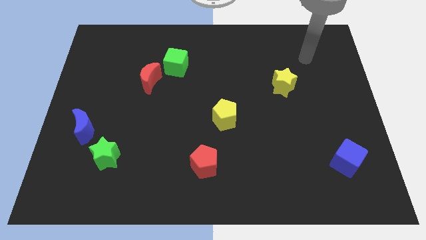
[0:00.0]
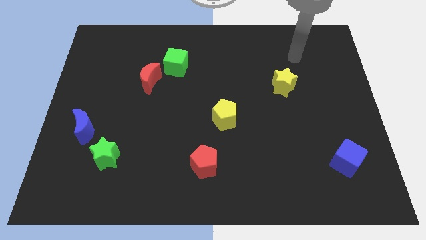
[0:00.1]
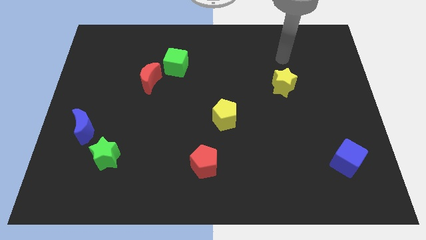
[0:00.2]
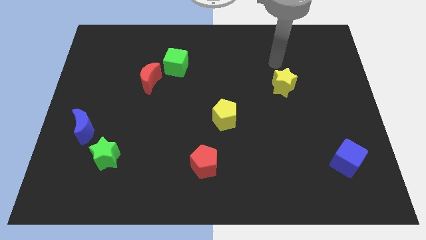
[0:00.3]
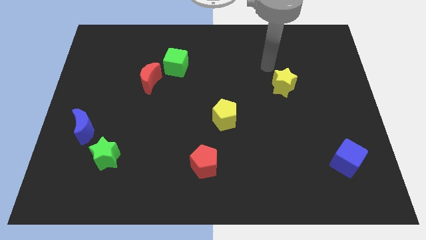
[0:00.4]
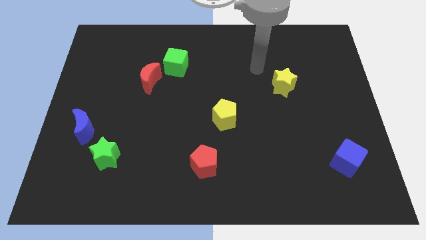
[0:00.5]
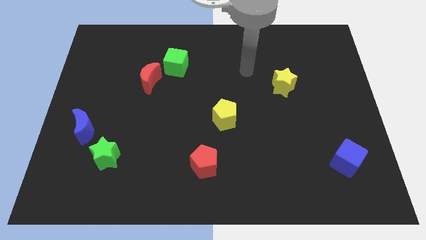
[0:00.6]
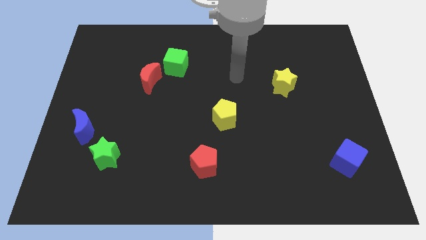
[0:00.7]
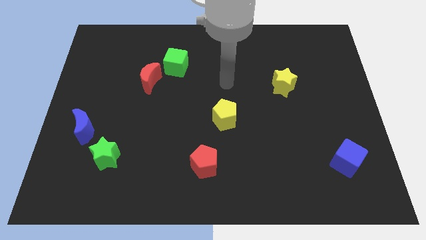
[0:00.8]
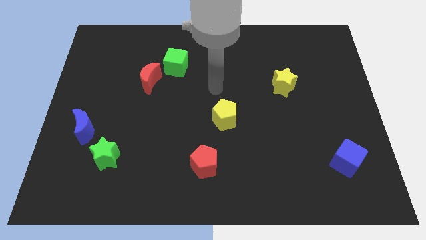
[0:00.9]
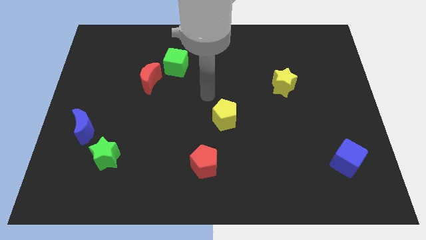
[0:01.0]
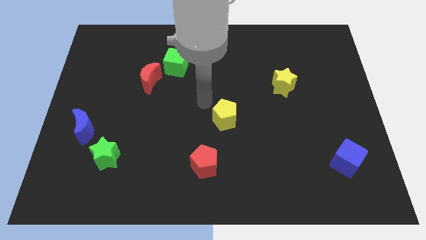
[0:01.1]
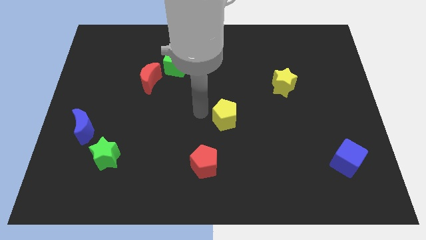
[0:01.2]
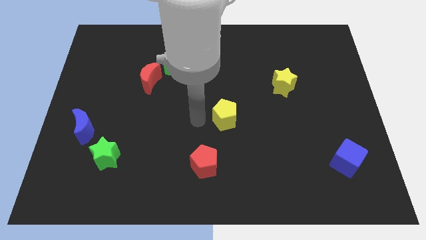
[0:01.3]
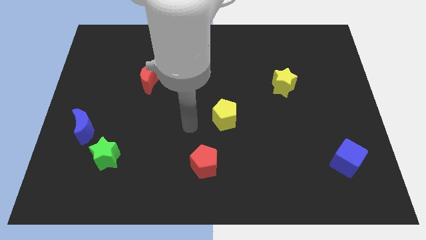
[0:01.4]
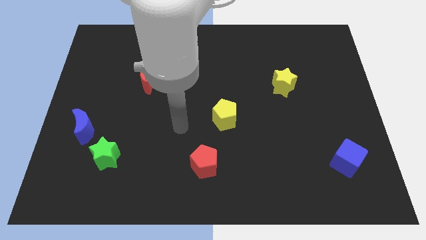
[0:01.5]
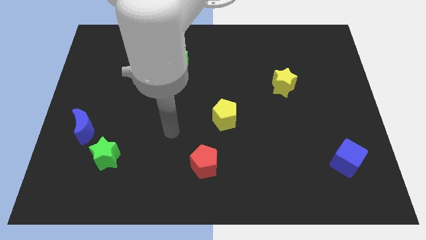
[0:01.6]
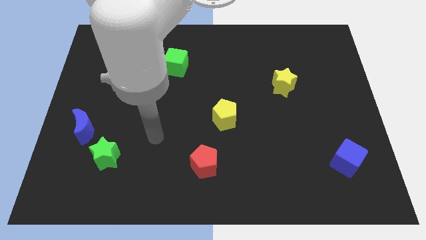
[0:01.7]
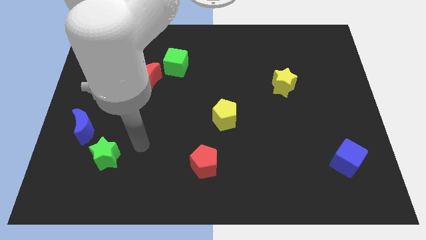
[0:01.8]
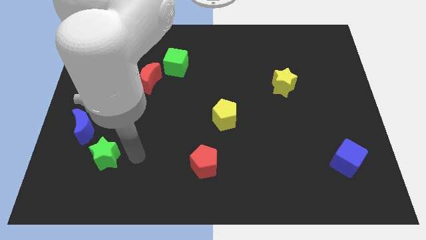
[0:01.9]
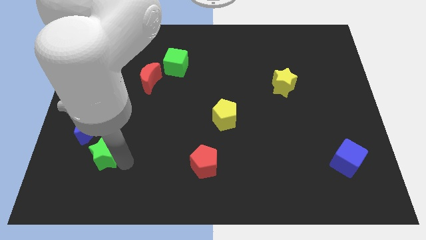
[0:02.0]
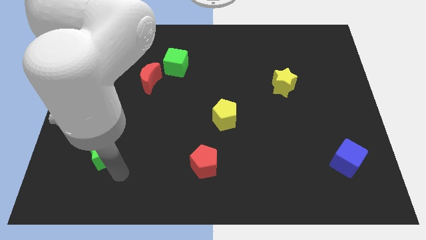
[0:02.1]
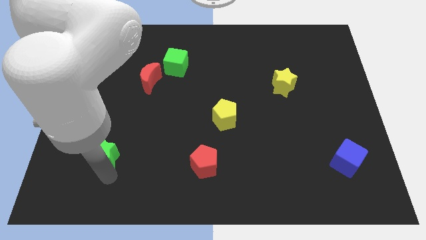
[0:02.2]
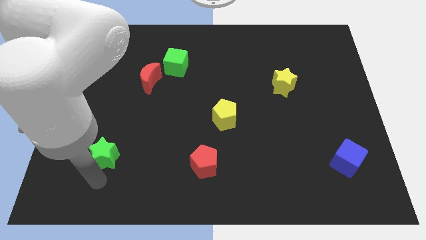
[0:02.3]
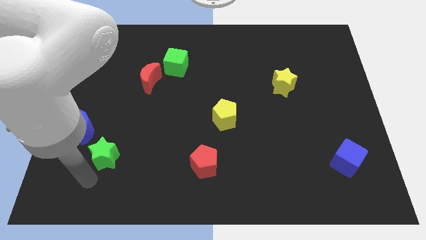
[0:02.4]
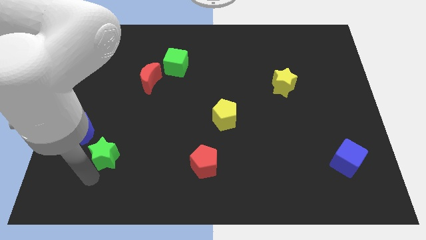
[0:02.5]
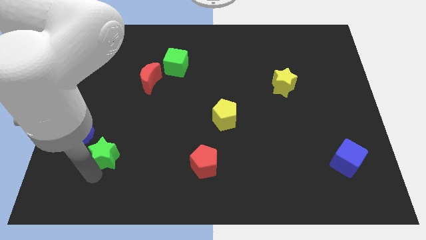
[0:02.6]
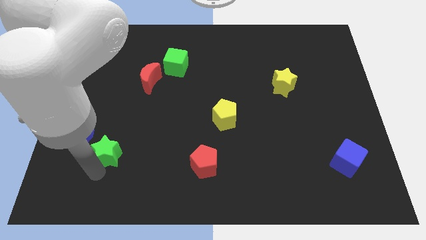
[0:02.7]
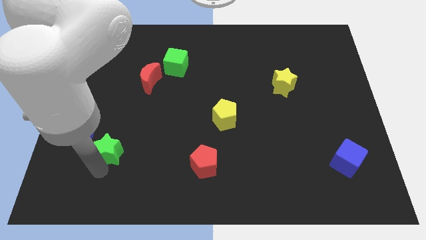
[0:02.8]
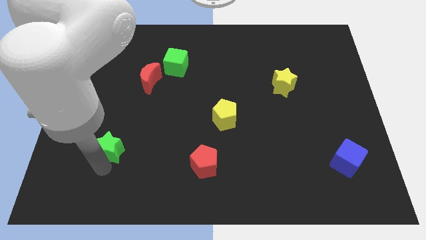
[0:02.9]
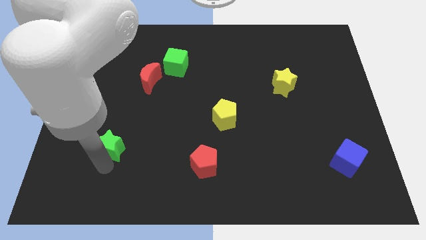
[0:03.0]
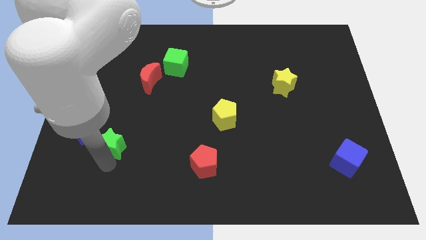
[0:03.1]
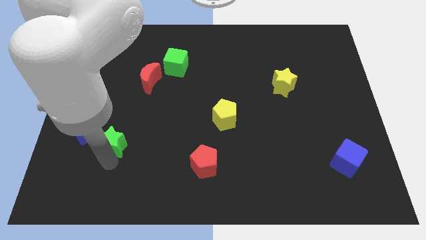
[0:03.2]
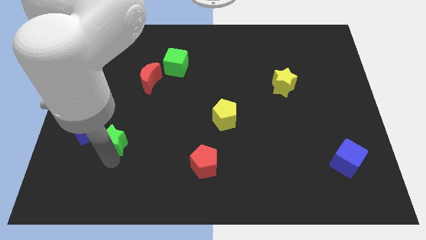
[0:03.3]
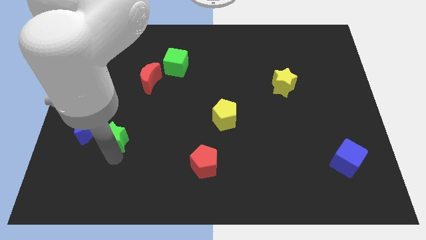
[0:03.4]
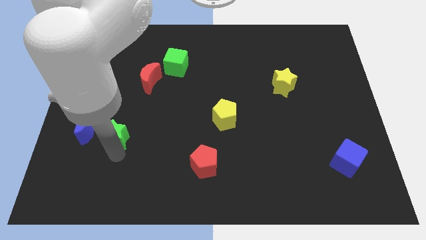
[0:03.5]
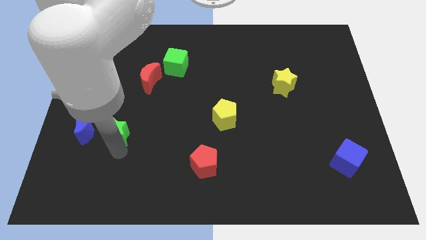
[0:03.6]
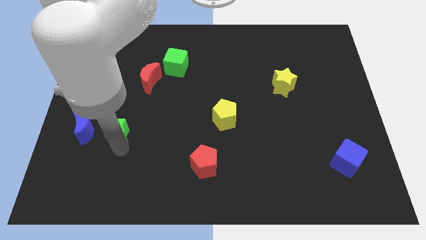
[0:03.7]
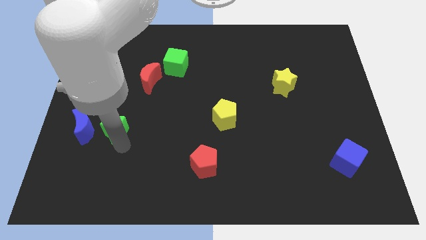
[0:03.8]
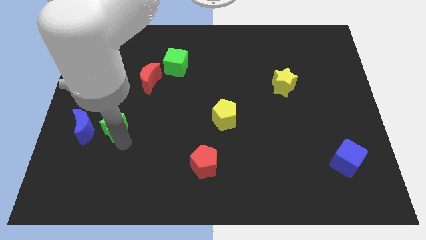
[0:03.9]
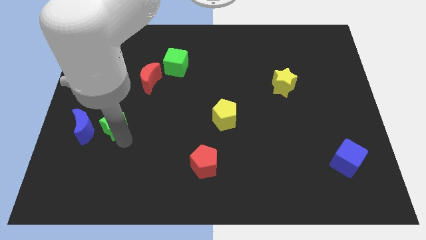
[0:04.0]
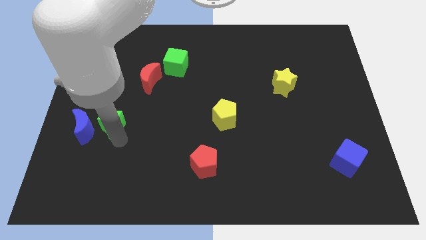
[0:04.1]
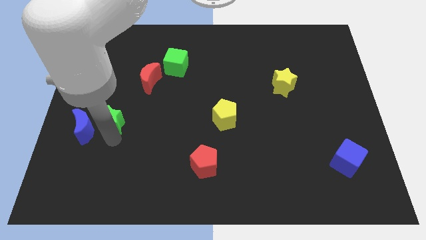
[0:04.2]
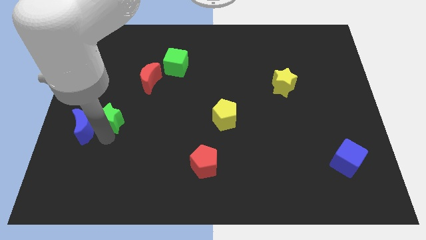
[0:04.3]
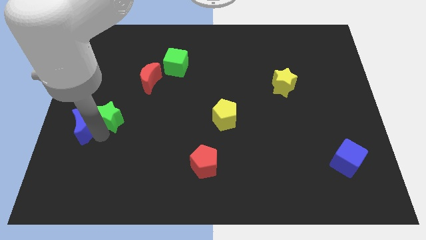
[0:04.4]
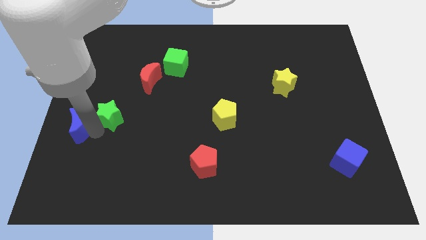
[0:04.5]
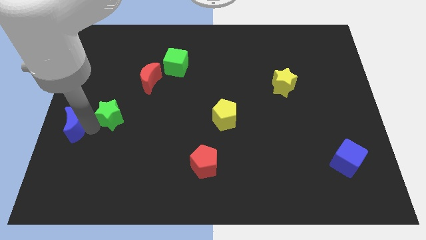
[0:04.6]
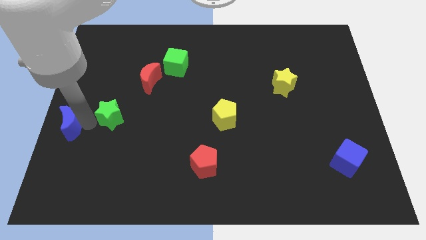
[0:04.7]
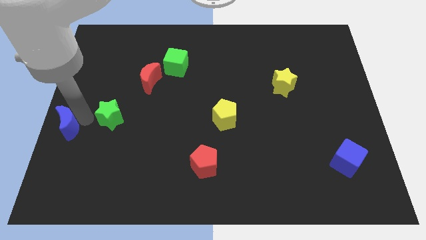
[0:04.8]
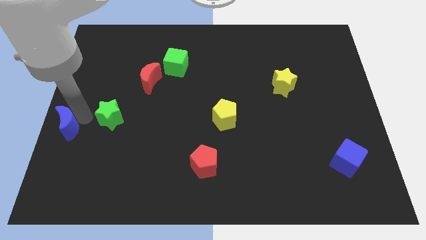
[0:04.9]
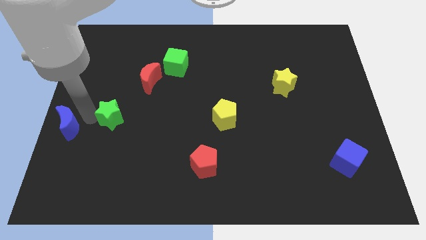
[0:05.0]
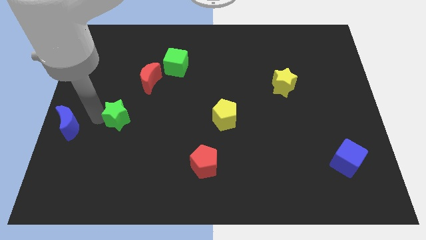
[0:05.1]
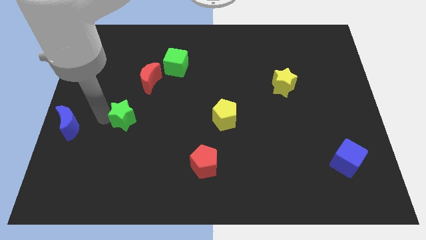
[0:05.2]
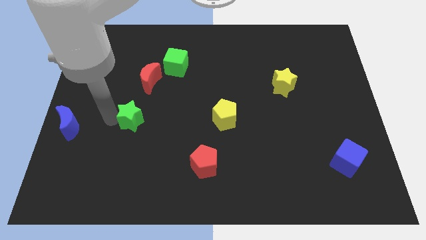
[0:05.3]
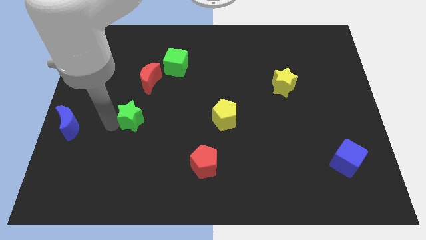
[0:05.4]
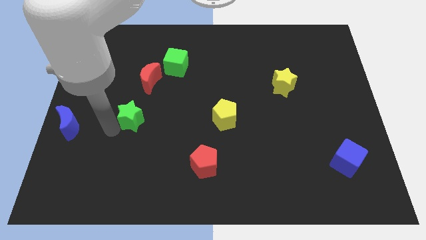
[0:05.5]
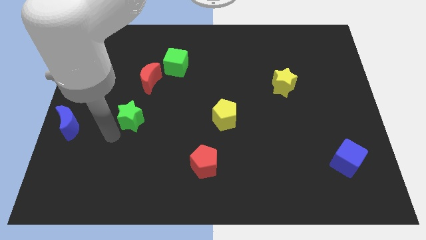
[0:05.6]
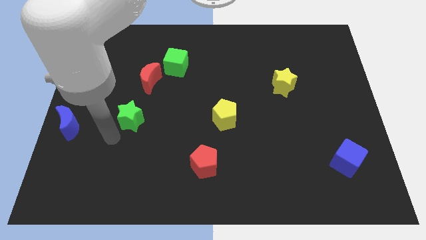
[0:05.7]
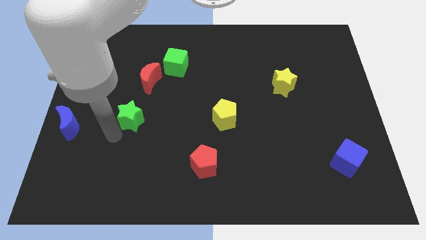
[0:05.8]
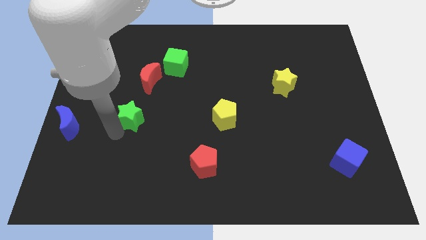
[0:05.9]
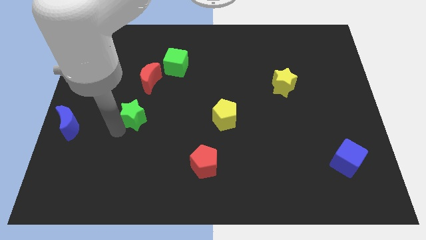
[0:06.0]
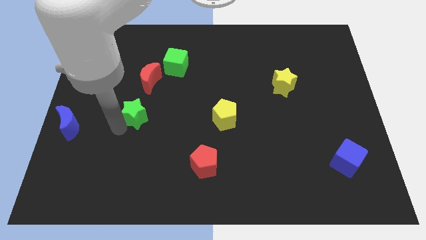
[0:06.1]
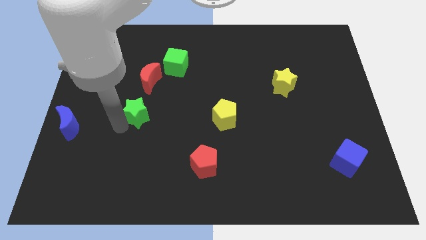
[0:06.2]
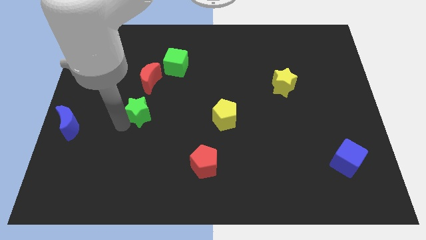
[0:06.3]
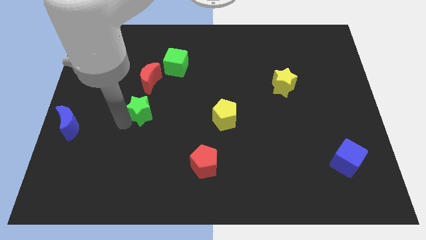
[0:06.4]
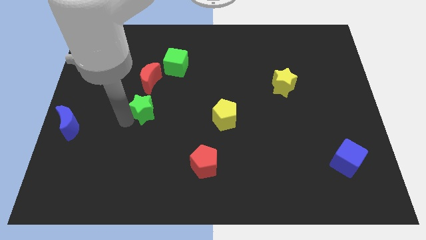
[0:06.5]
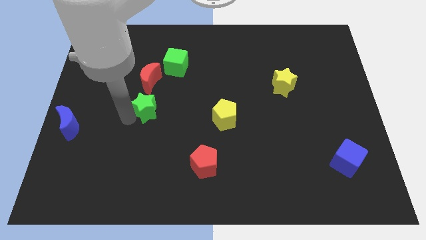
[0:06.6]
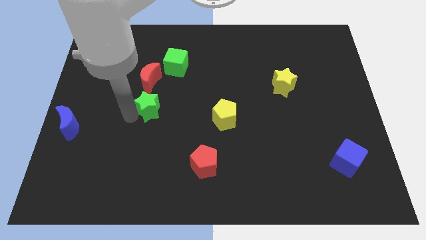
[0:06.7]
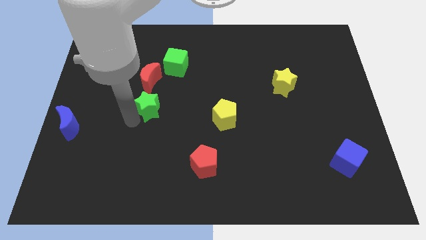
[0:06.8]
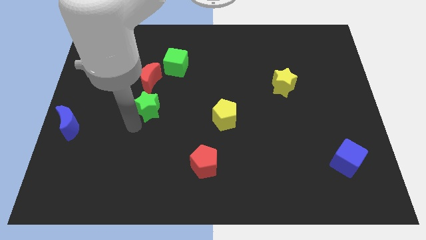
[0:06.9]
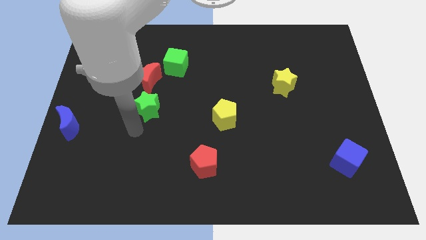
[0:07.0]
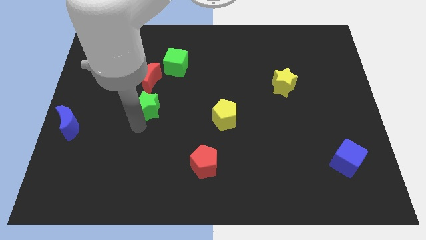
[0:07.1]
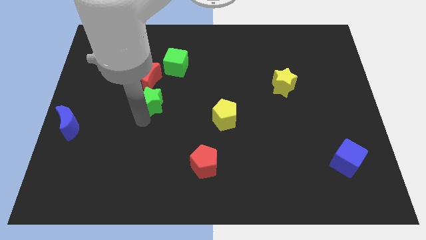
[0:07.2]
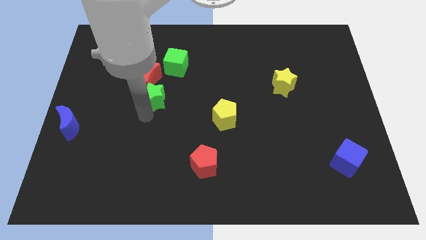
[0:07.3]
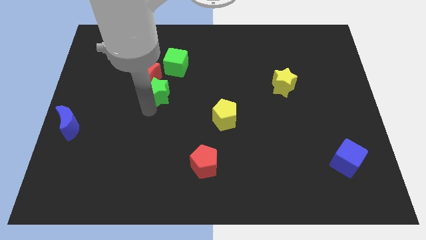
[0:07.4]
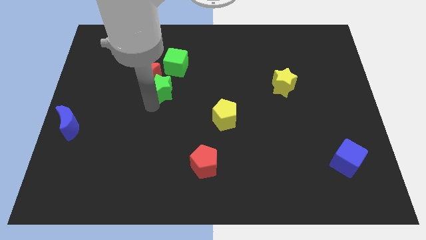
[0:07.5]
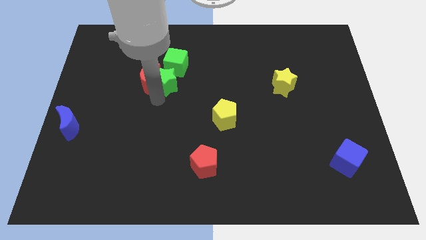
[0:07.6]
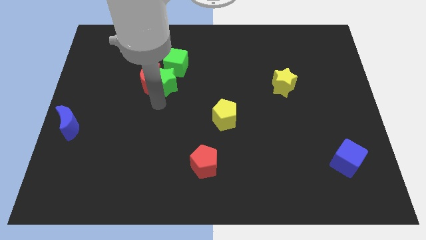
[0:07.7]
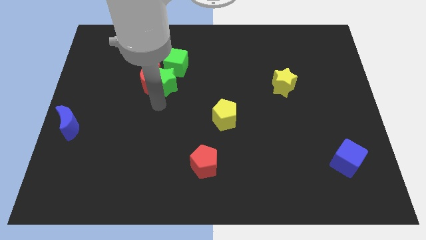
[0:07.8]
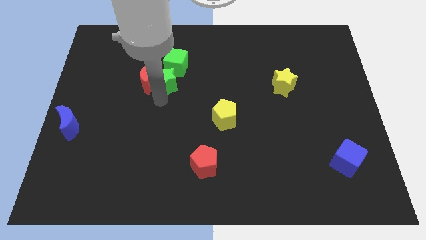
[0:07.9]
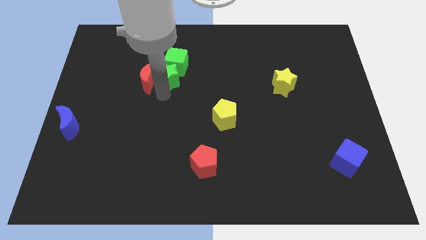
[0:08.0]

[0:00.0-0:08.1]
slide the green star to the green cube
